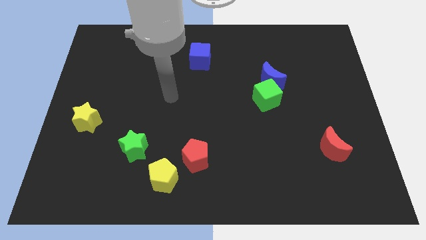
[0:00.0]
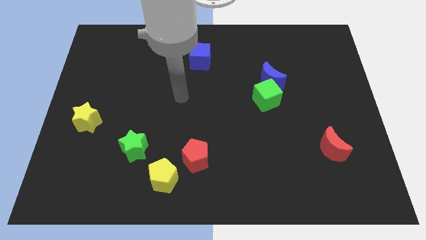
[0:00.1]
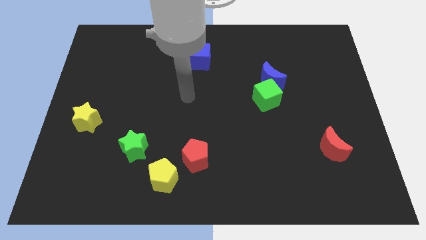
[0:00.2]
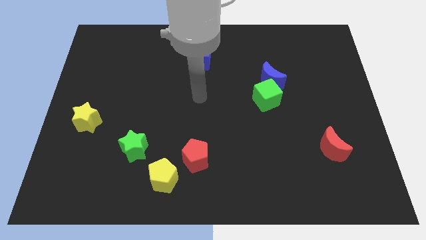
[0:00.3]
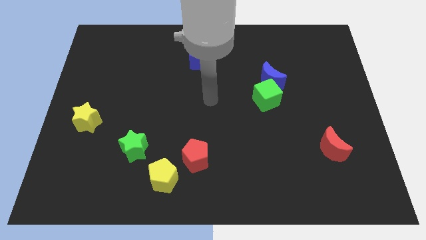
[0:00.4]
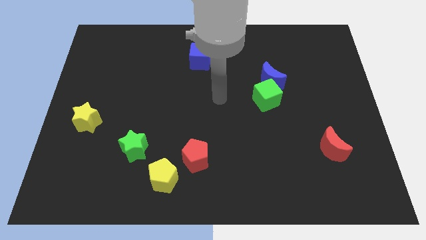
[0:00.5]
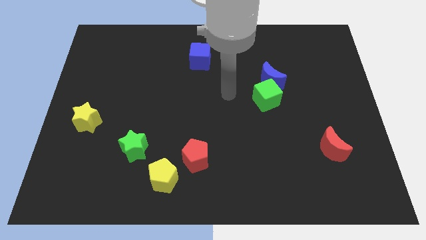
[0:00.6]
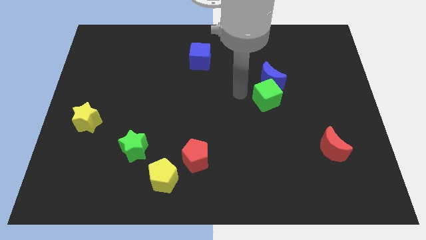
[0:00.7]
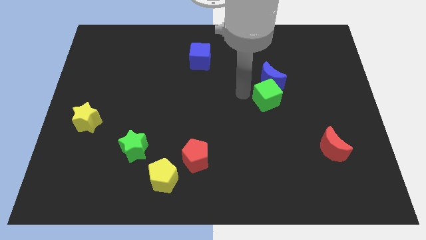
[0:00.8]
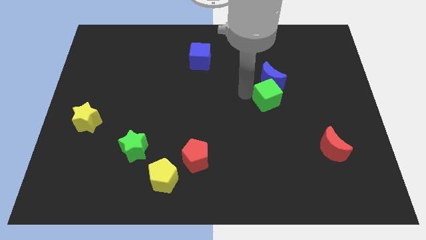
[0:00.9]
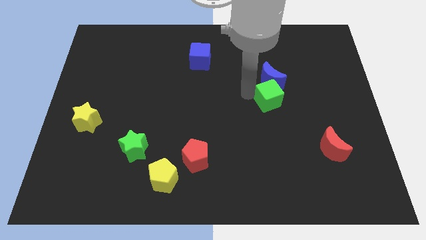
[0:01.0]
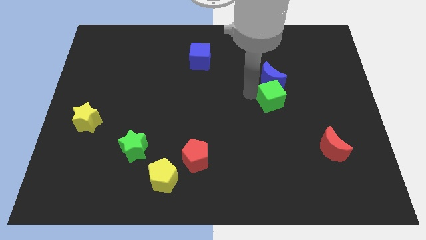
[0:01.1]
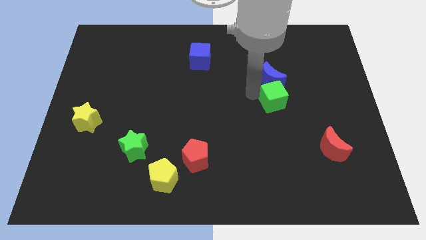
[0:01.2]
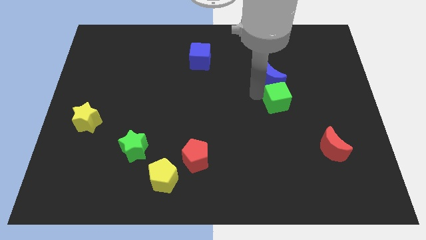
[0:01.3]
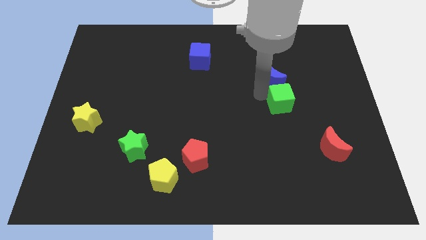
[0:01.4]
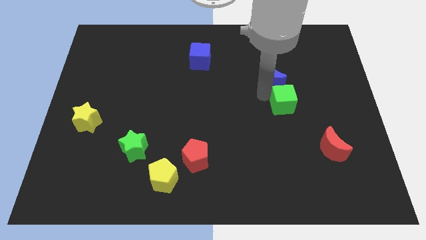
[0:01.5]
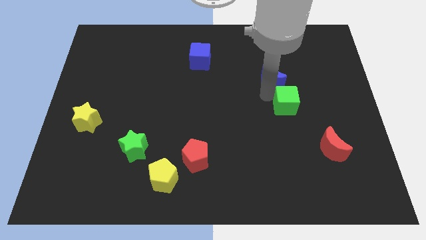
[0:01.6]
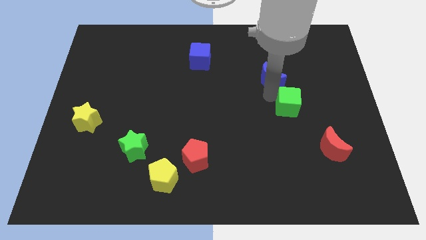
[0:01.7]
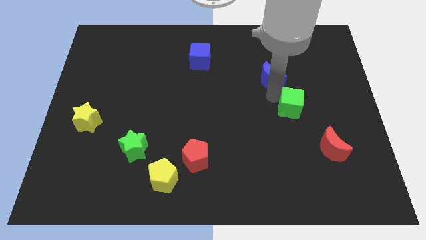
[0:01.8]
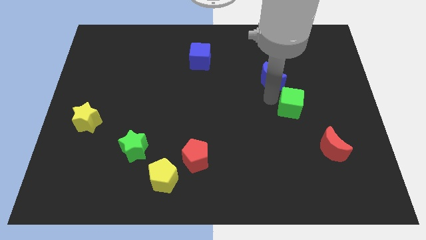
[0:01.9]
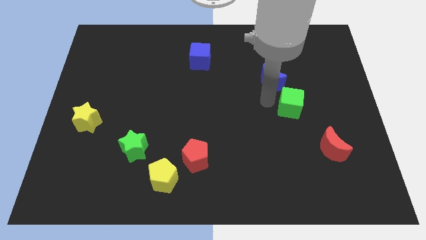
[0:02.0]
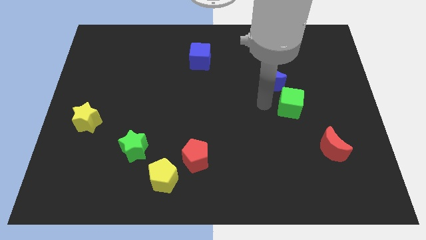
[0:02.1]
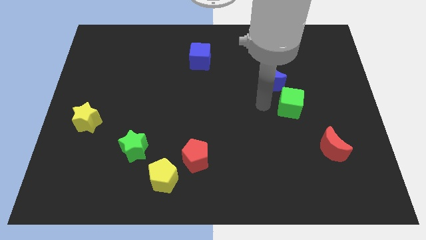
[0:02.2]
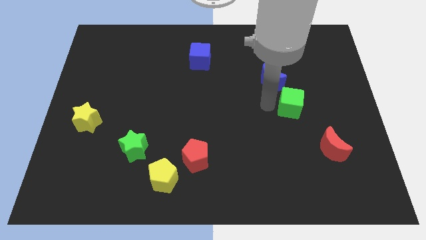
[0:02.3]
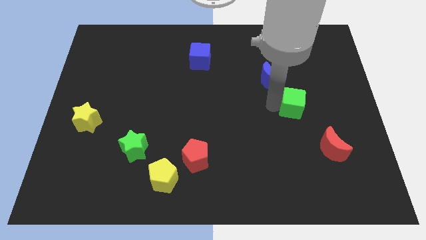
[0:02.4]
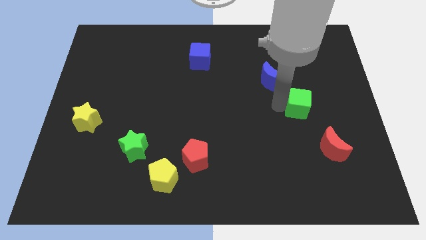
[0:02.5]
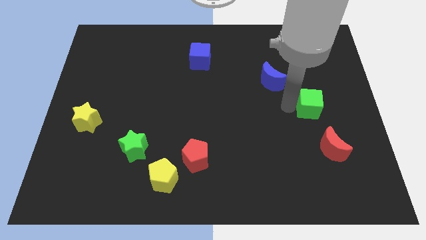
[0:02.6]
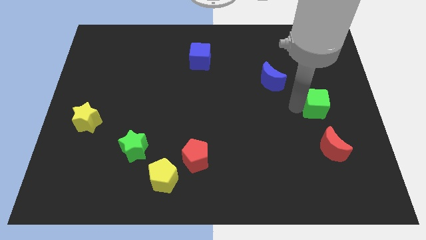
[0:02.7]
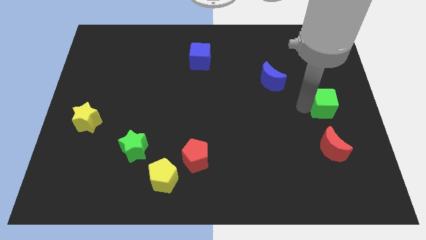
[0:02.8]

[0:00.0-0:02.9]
put the green cube to the center right

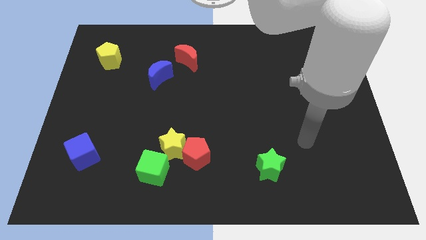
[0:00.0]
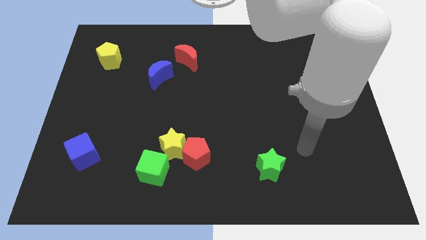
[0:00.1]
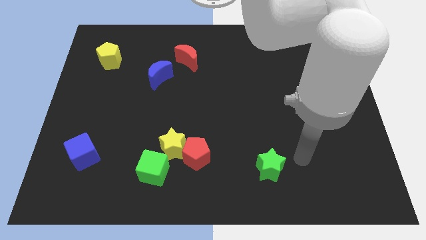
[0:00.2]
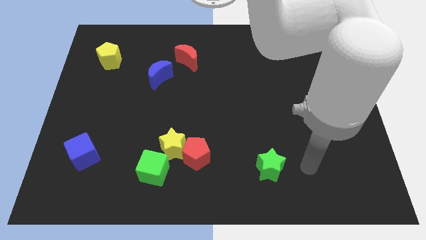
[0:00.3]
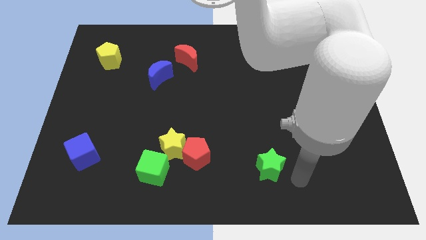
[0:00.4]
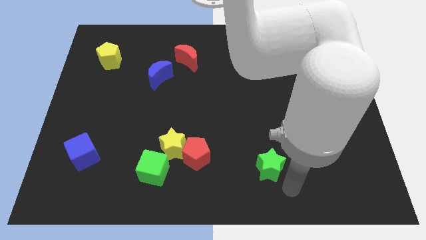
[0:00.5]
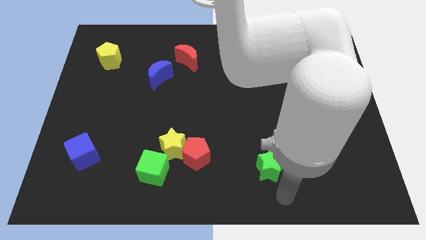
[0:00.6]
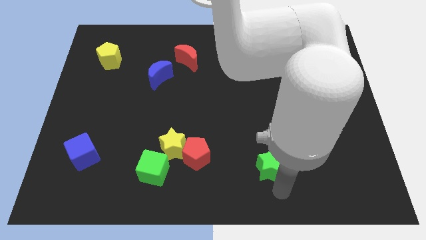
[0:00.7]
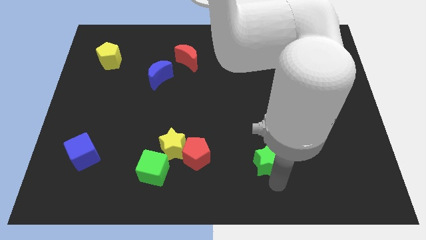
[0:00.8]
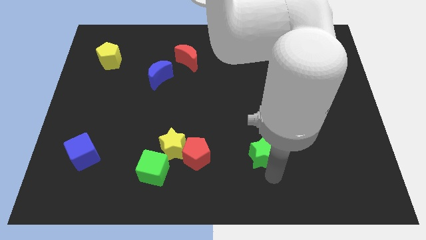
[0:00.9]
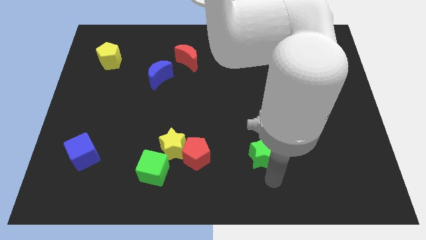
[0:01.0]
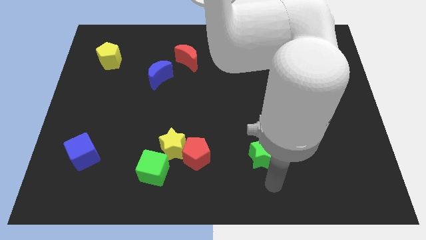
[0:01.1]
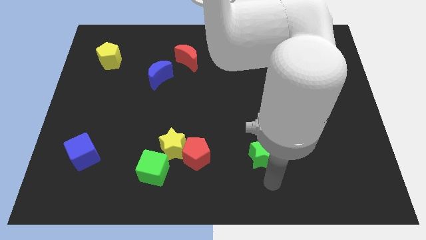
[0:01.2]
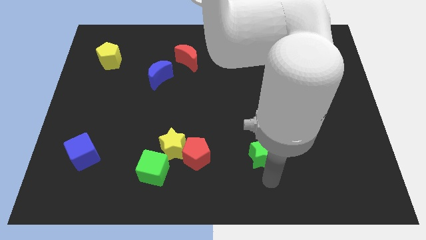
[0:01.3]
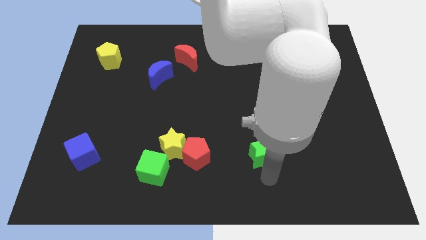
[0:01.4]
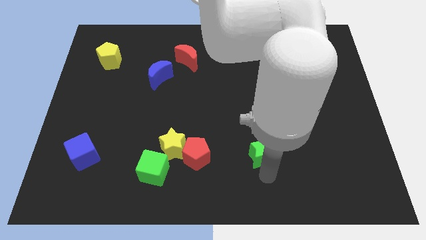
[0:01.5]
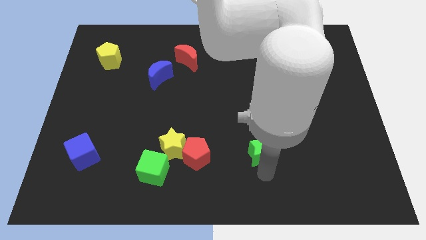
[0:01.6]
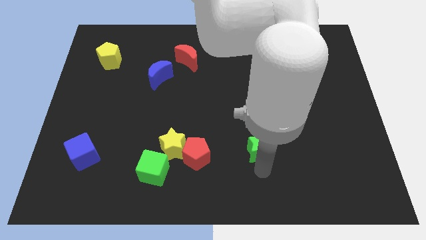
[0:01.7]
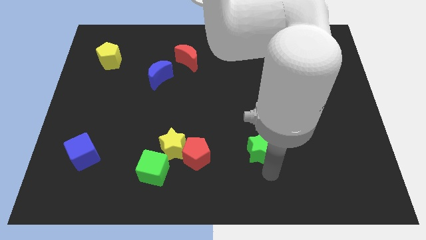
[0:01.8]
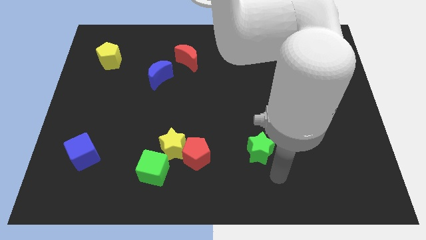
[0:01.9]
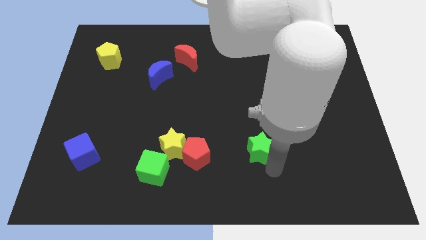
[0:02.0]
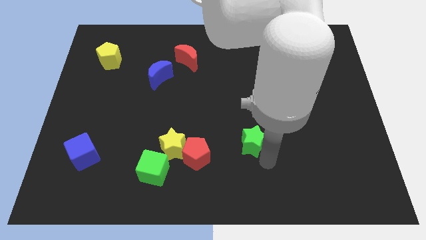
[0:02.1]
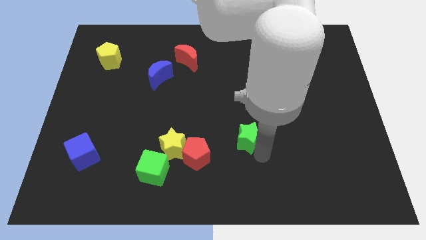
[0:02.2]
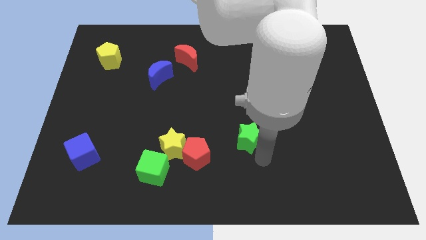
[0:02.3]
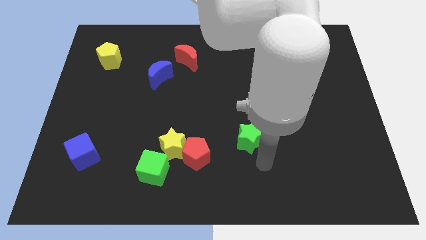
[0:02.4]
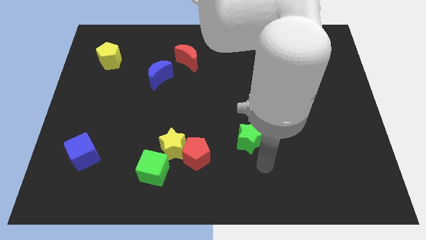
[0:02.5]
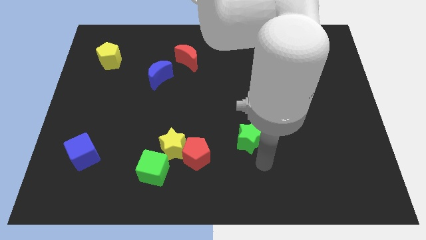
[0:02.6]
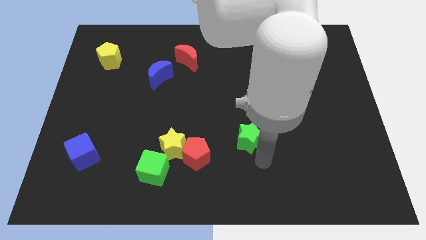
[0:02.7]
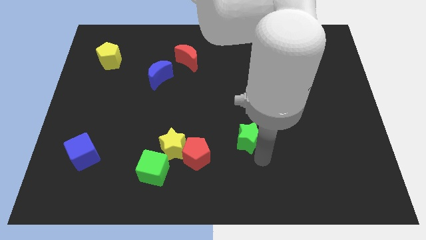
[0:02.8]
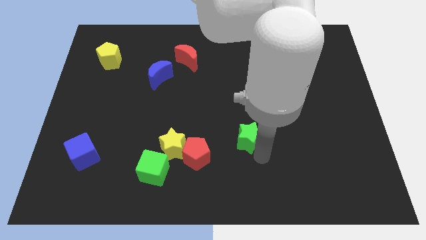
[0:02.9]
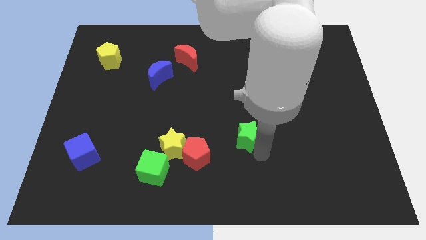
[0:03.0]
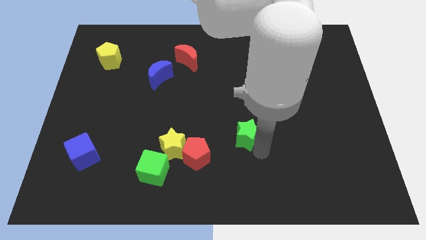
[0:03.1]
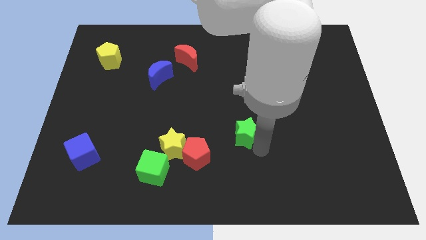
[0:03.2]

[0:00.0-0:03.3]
slide the green star to the center of the board

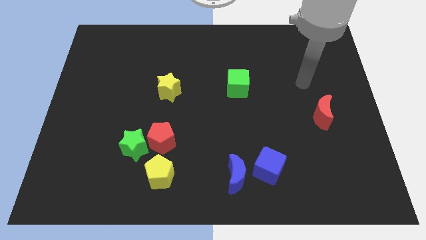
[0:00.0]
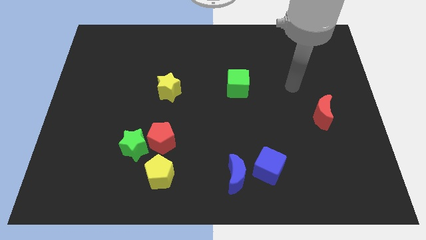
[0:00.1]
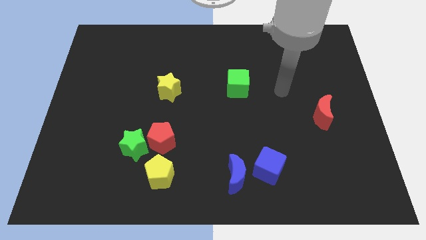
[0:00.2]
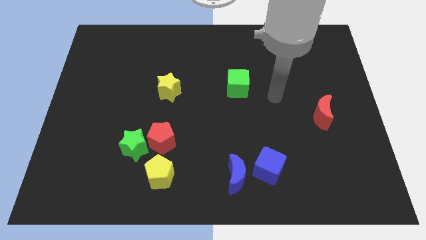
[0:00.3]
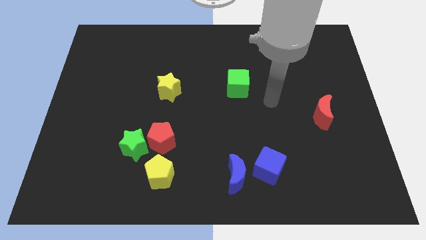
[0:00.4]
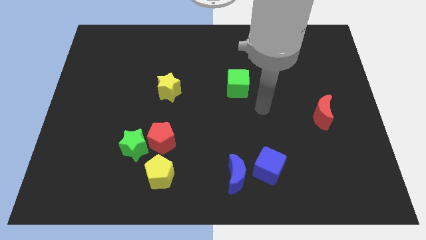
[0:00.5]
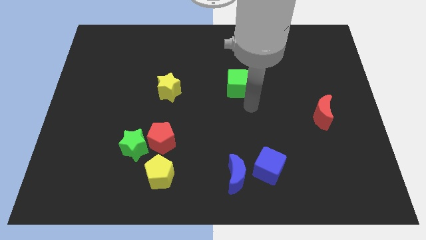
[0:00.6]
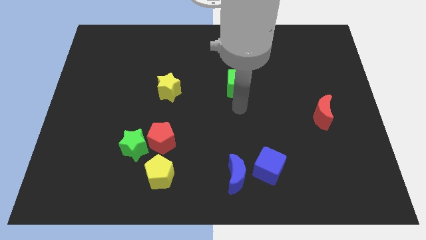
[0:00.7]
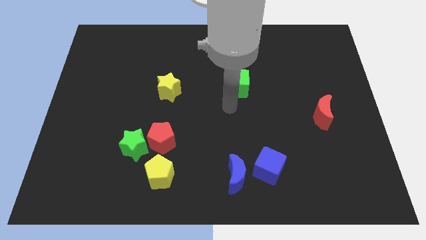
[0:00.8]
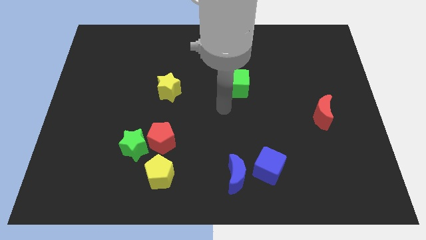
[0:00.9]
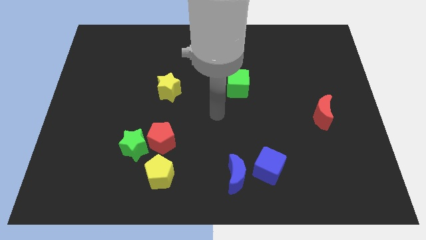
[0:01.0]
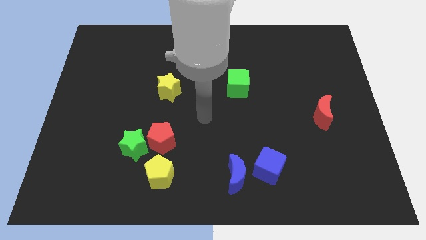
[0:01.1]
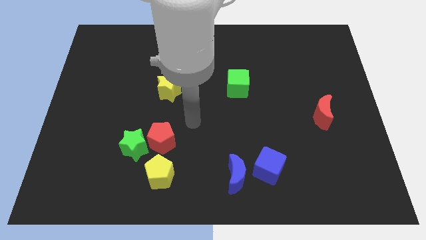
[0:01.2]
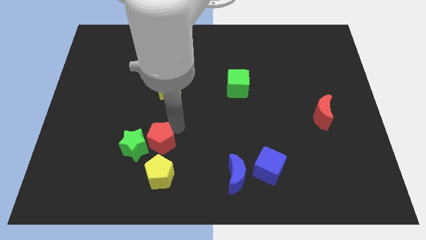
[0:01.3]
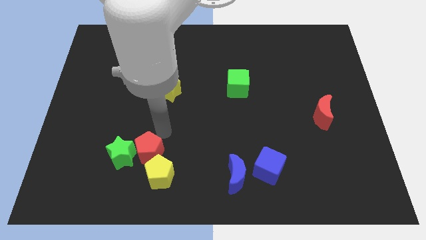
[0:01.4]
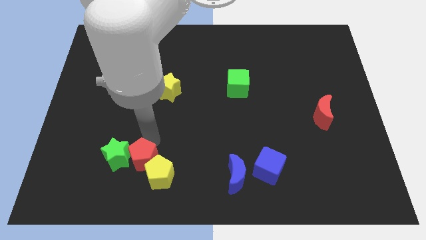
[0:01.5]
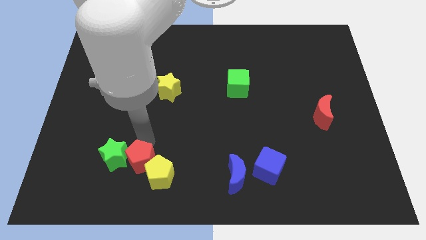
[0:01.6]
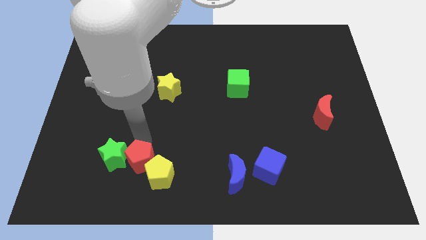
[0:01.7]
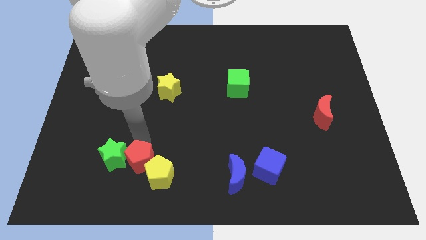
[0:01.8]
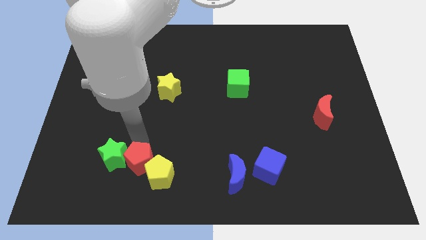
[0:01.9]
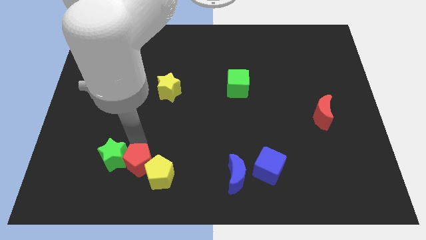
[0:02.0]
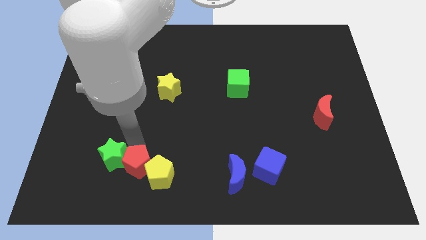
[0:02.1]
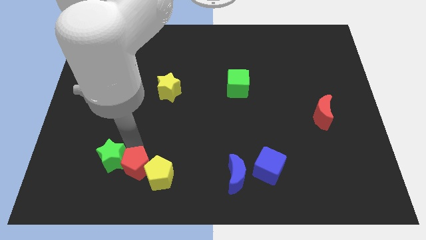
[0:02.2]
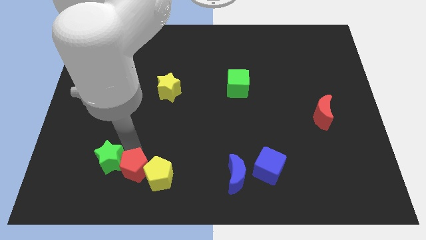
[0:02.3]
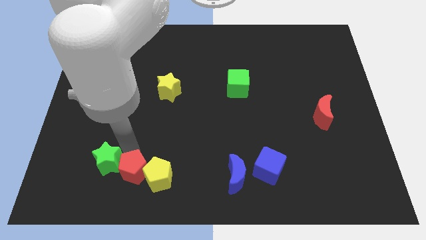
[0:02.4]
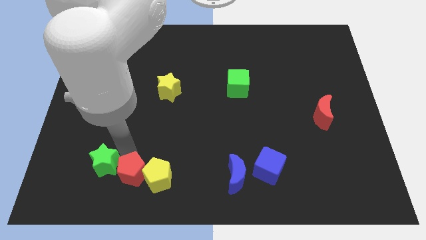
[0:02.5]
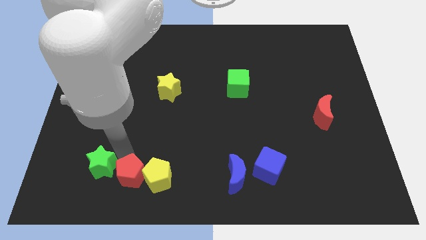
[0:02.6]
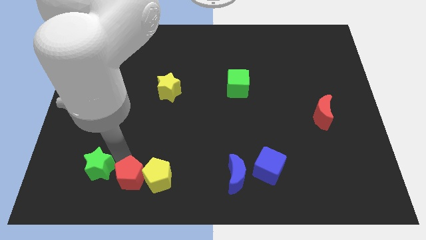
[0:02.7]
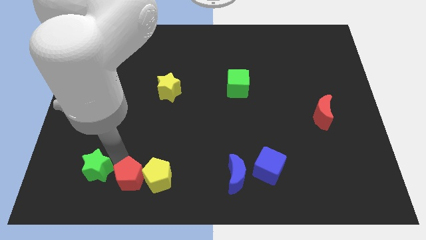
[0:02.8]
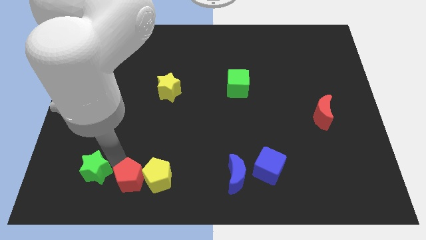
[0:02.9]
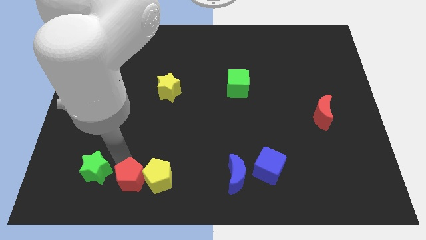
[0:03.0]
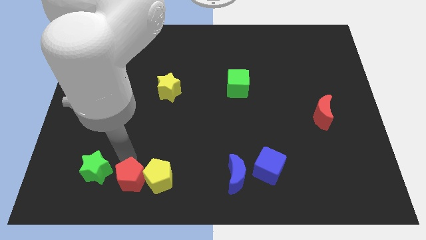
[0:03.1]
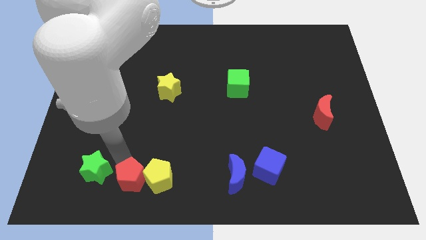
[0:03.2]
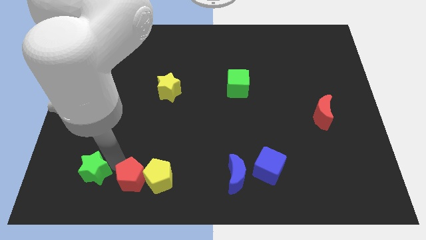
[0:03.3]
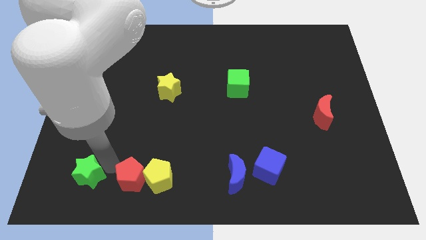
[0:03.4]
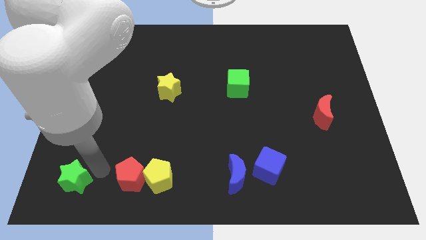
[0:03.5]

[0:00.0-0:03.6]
move the green star to the lower left corner
